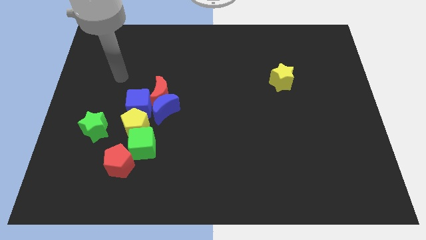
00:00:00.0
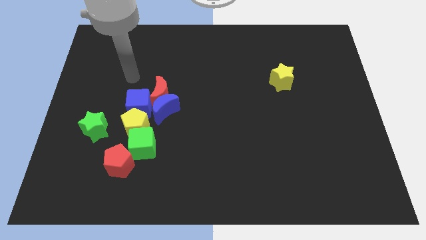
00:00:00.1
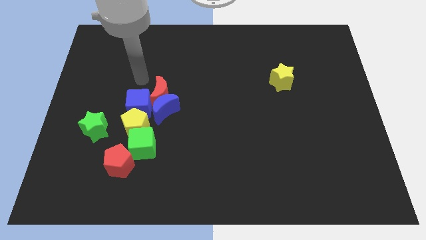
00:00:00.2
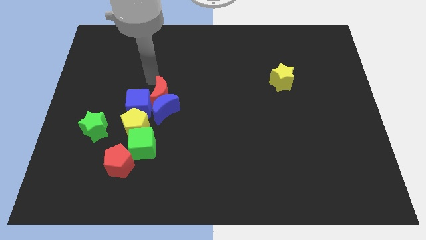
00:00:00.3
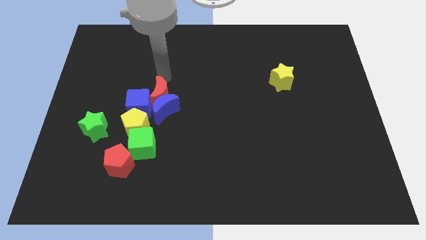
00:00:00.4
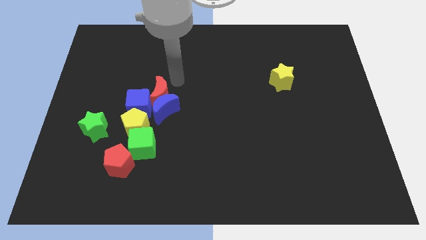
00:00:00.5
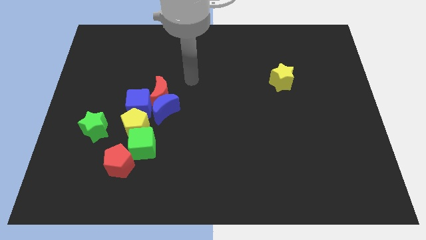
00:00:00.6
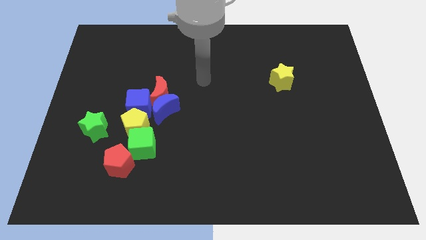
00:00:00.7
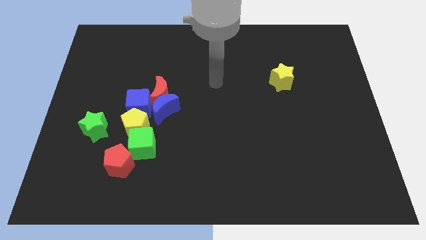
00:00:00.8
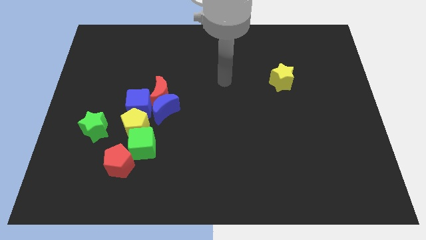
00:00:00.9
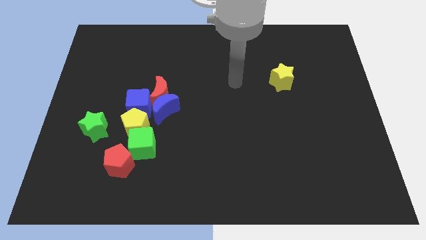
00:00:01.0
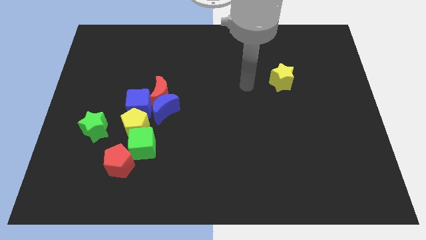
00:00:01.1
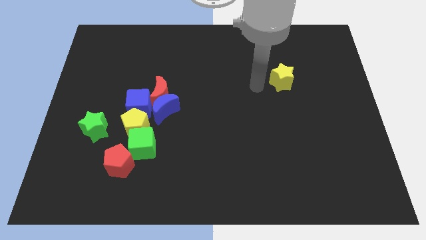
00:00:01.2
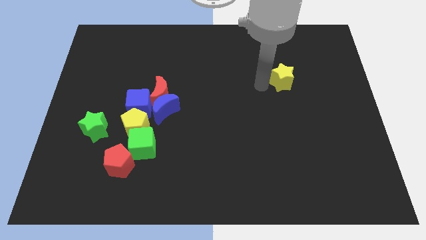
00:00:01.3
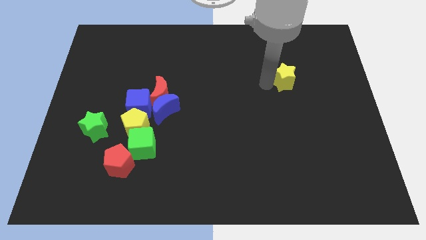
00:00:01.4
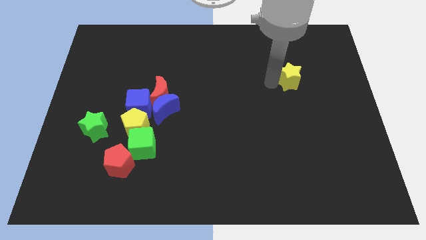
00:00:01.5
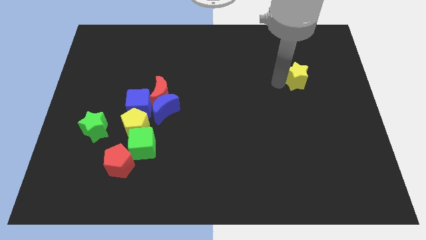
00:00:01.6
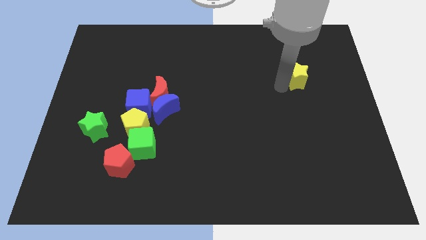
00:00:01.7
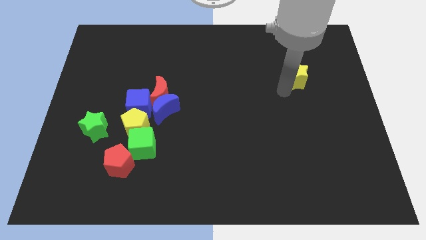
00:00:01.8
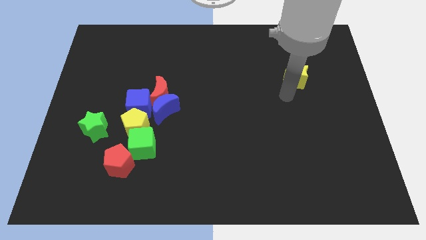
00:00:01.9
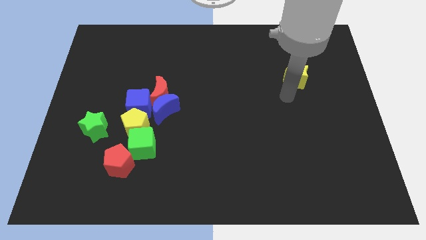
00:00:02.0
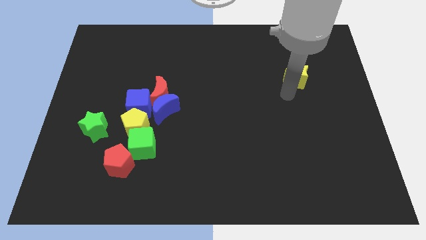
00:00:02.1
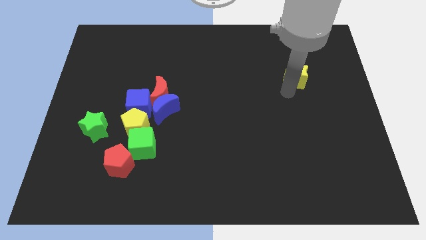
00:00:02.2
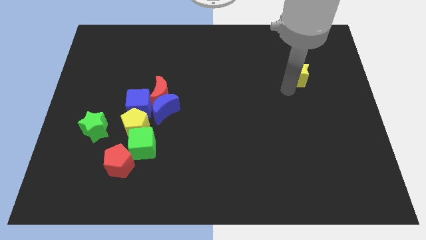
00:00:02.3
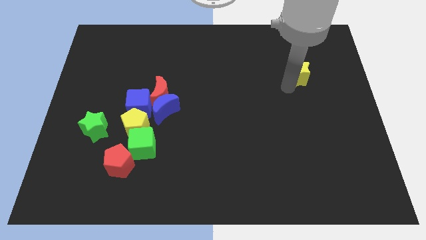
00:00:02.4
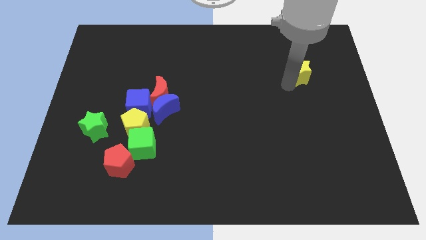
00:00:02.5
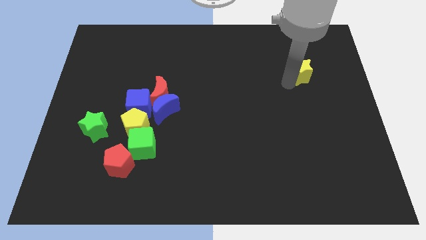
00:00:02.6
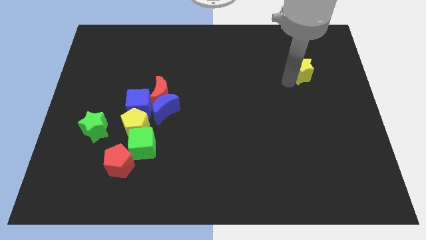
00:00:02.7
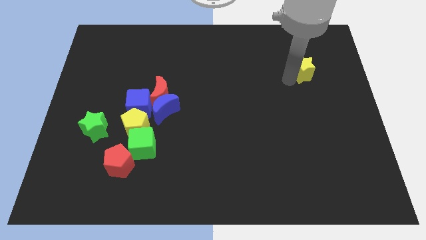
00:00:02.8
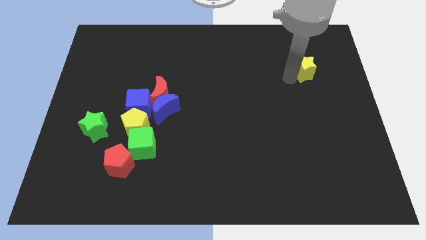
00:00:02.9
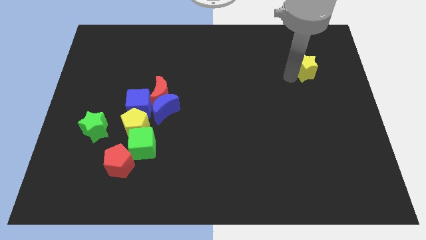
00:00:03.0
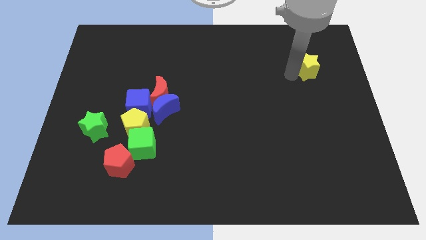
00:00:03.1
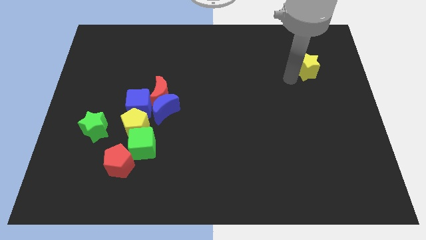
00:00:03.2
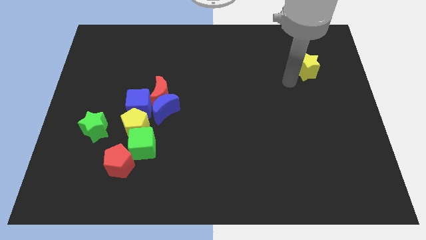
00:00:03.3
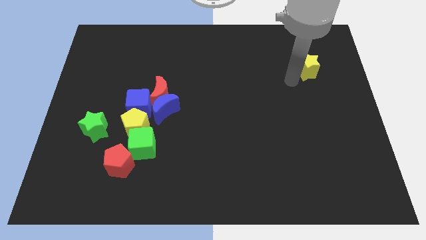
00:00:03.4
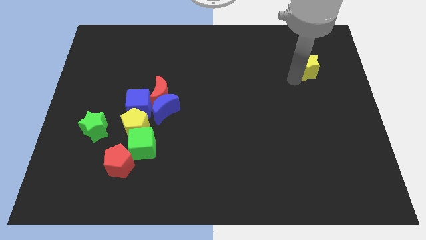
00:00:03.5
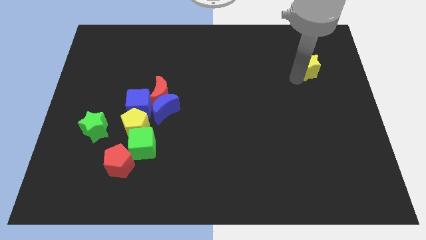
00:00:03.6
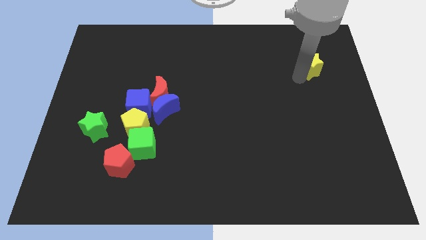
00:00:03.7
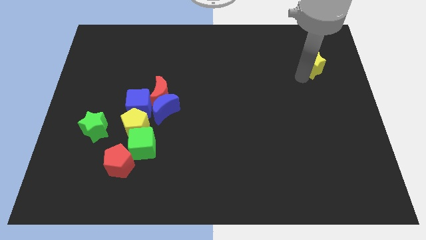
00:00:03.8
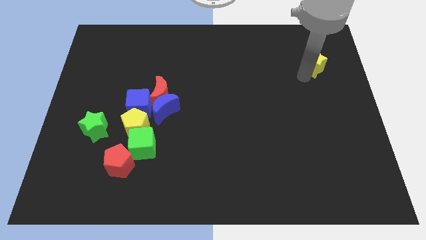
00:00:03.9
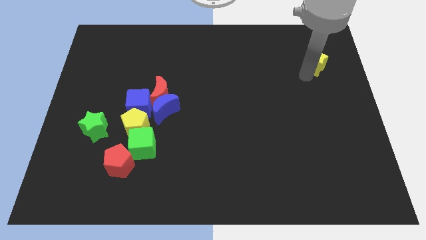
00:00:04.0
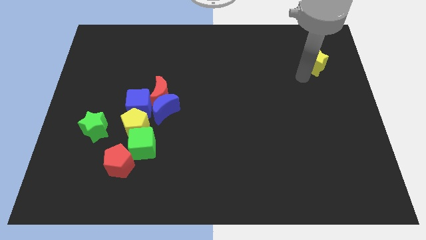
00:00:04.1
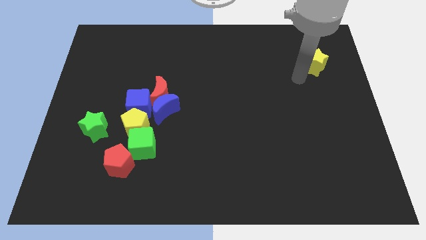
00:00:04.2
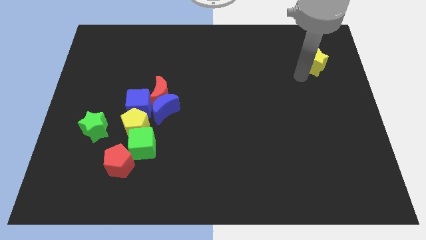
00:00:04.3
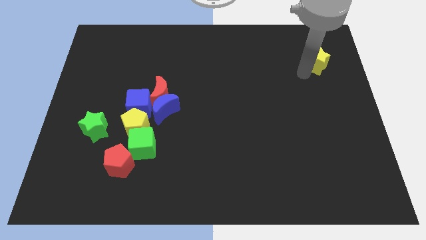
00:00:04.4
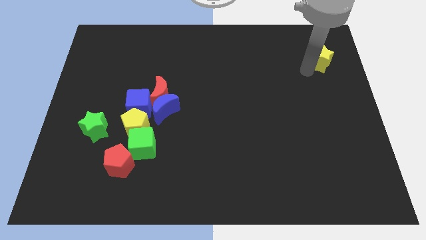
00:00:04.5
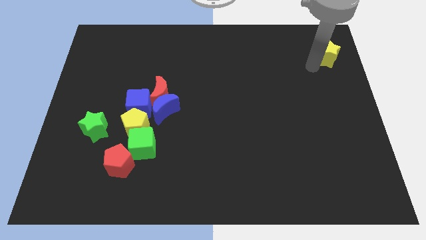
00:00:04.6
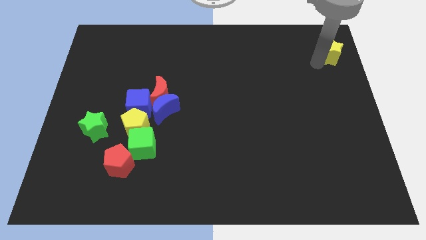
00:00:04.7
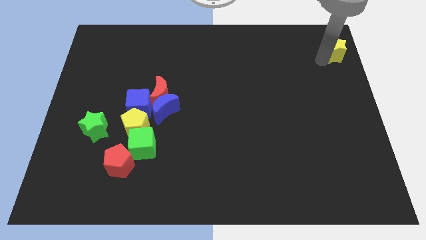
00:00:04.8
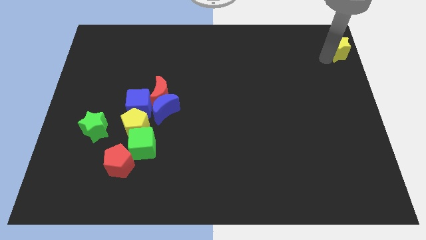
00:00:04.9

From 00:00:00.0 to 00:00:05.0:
move the yellow star to the top right corner

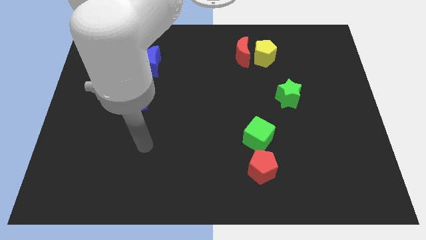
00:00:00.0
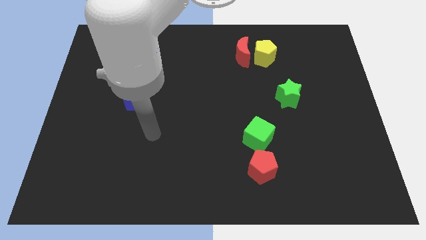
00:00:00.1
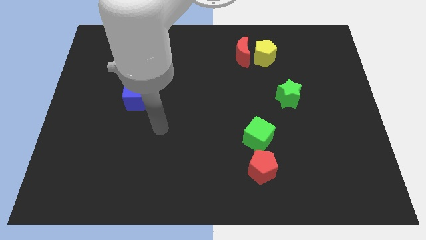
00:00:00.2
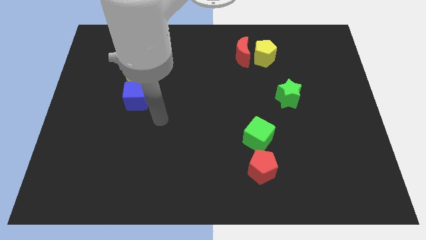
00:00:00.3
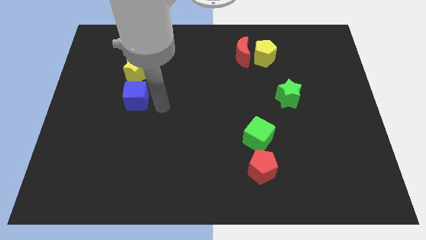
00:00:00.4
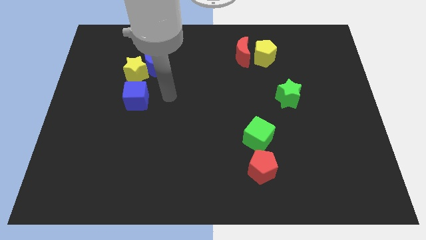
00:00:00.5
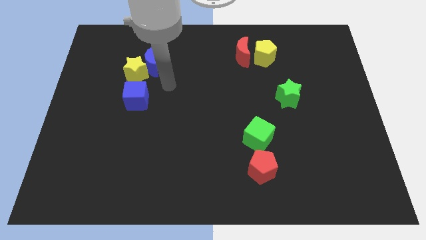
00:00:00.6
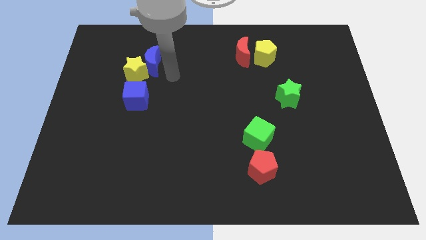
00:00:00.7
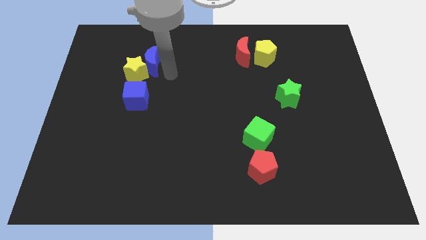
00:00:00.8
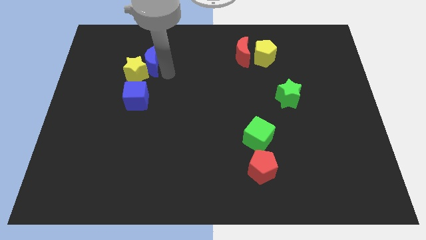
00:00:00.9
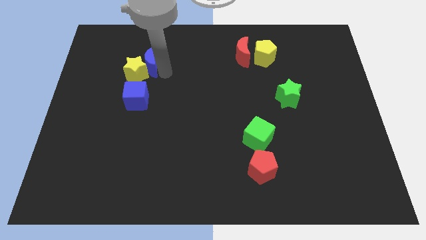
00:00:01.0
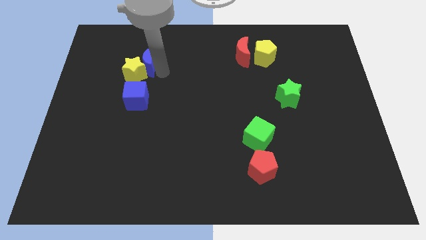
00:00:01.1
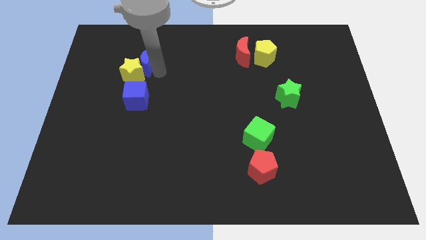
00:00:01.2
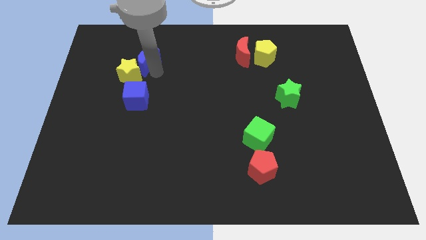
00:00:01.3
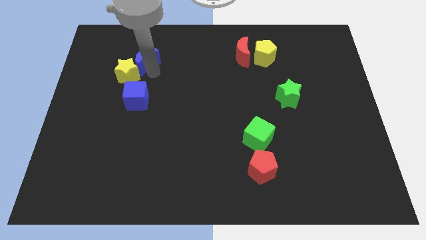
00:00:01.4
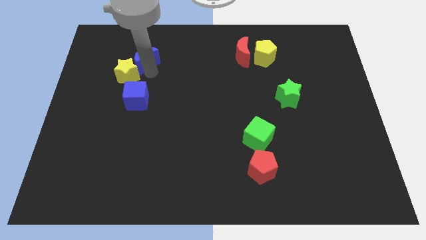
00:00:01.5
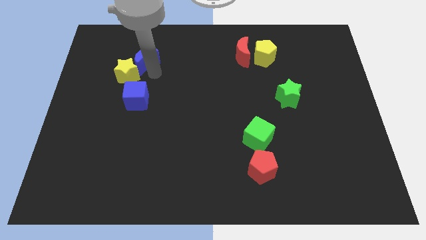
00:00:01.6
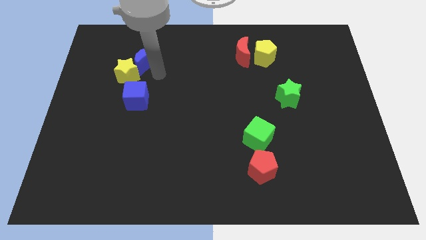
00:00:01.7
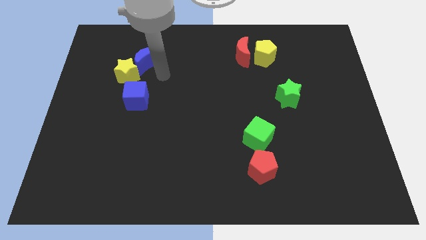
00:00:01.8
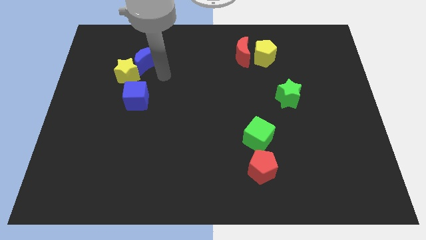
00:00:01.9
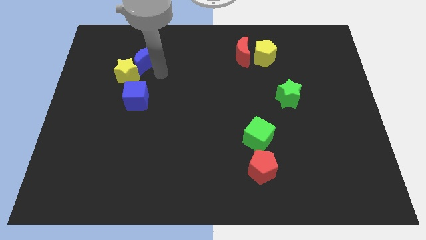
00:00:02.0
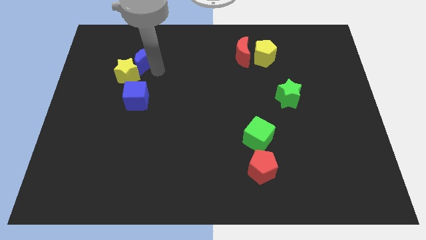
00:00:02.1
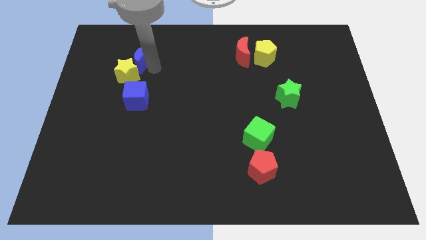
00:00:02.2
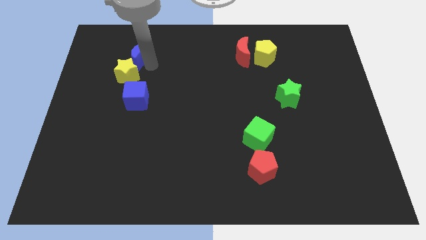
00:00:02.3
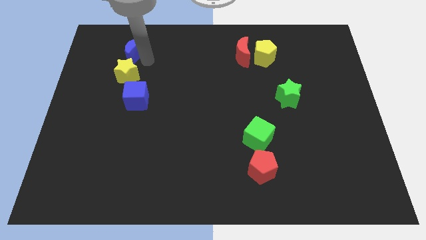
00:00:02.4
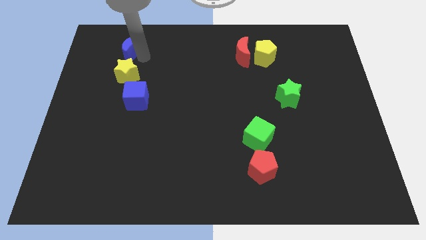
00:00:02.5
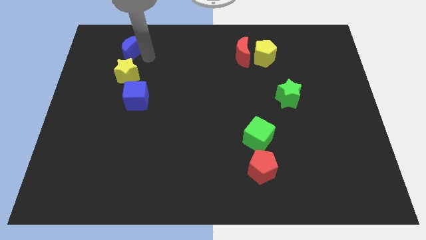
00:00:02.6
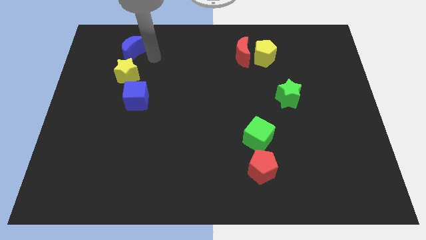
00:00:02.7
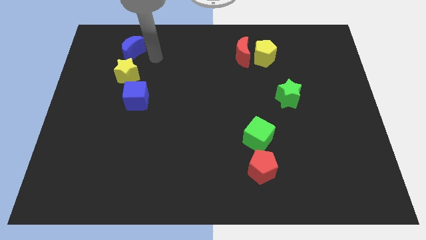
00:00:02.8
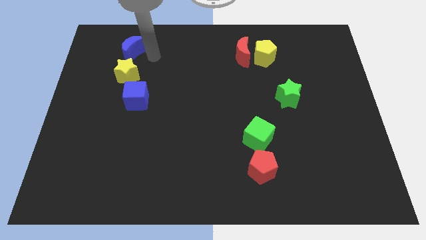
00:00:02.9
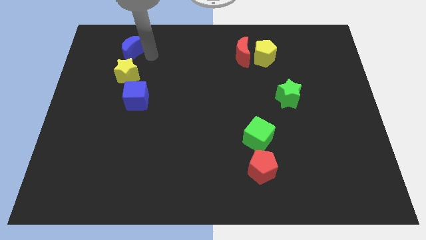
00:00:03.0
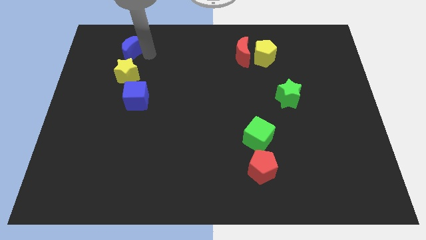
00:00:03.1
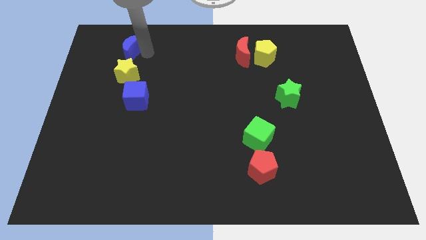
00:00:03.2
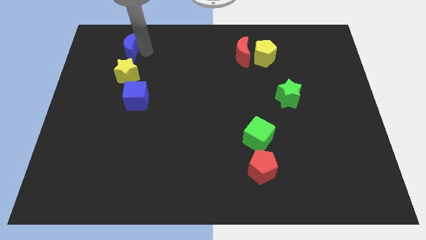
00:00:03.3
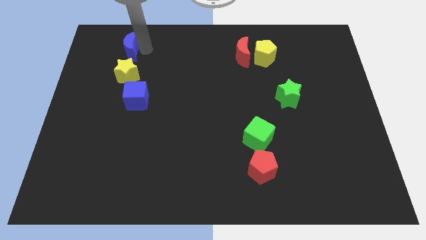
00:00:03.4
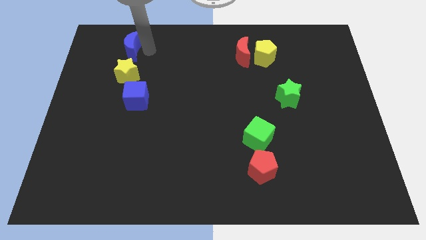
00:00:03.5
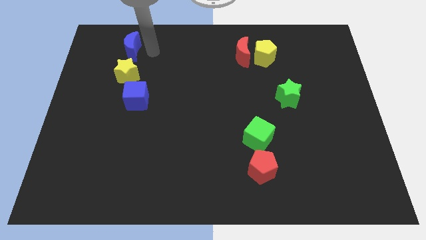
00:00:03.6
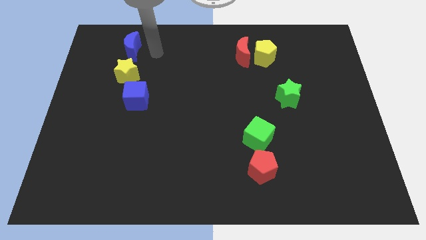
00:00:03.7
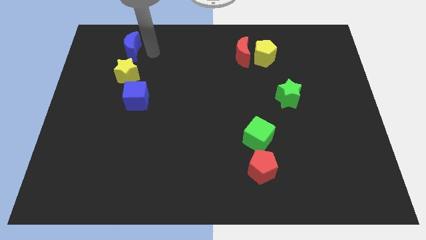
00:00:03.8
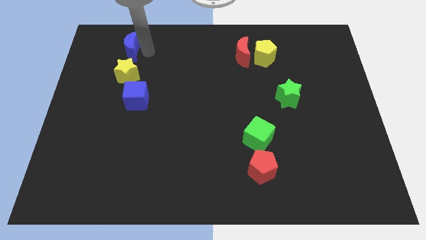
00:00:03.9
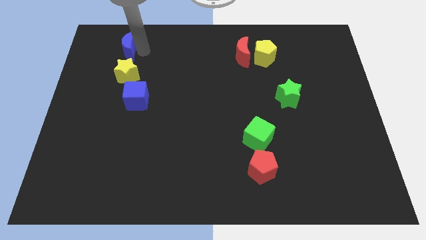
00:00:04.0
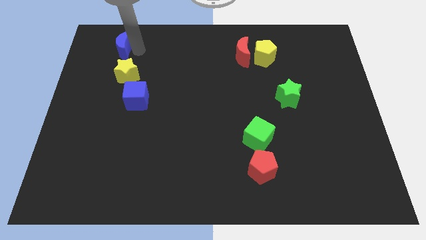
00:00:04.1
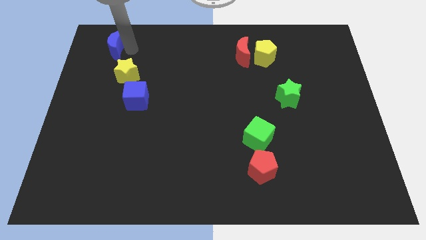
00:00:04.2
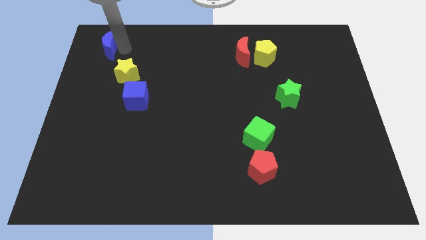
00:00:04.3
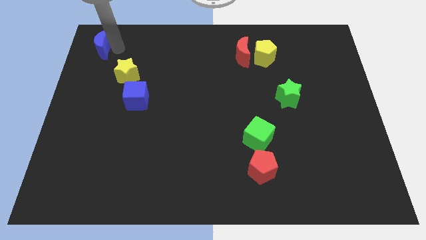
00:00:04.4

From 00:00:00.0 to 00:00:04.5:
move the blue moon to the top left of the board
